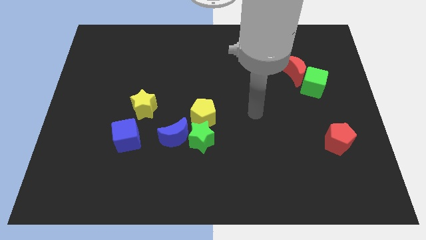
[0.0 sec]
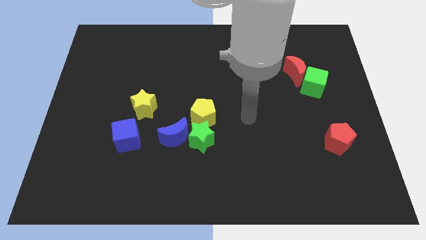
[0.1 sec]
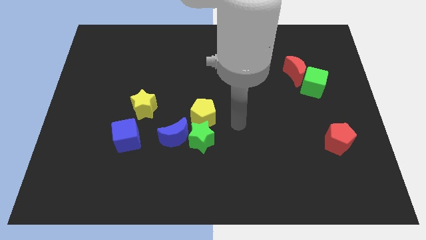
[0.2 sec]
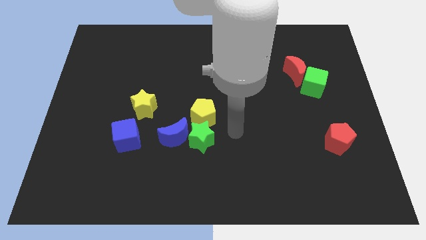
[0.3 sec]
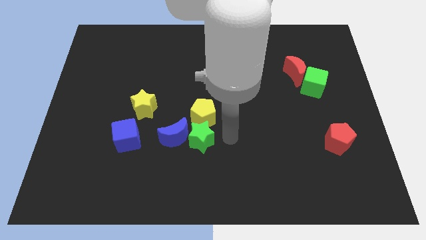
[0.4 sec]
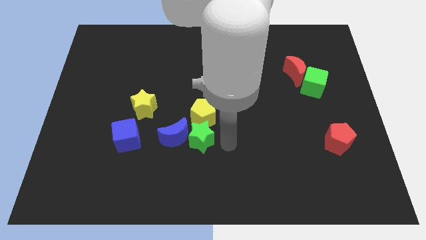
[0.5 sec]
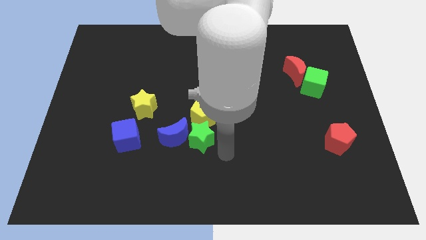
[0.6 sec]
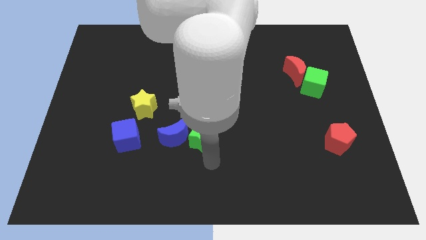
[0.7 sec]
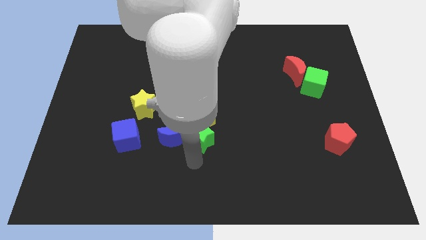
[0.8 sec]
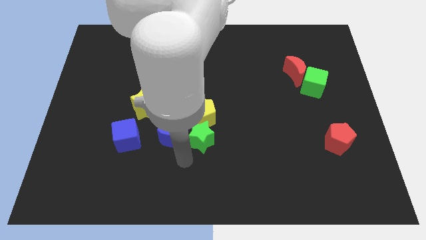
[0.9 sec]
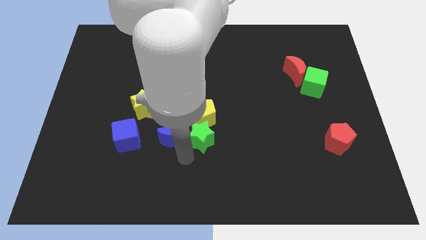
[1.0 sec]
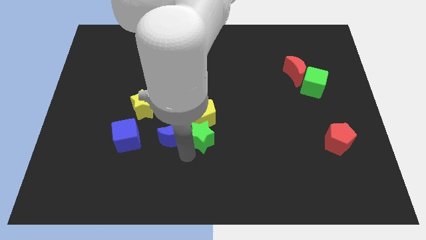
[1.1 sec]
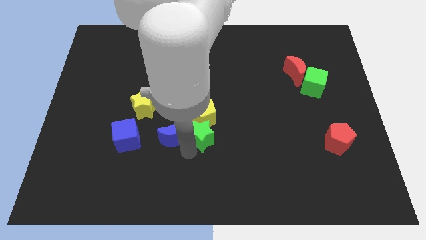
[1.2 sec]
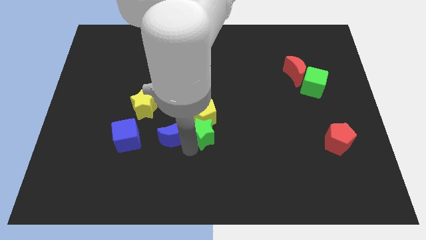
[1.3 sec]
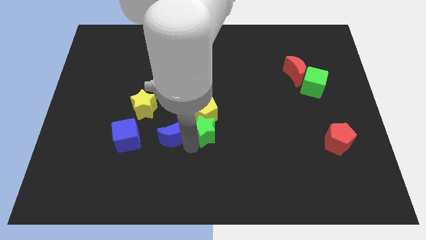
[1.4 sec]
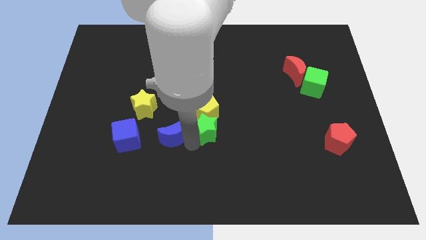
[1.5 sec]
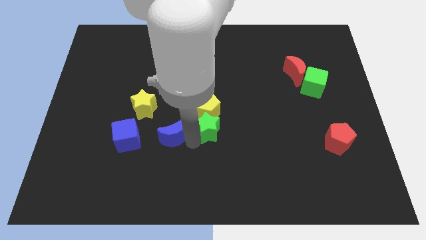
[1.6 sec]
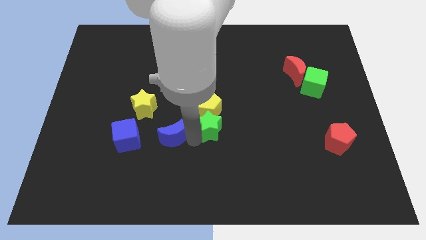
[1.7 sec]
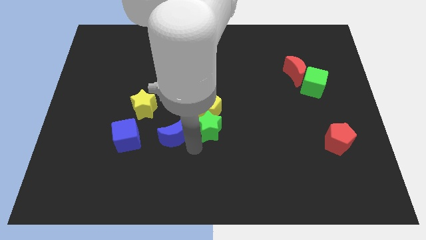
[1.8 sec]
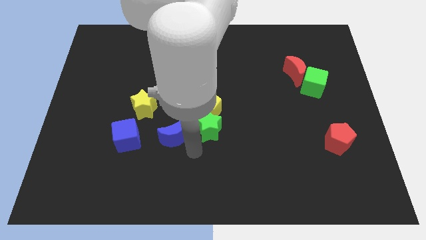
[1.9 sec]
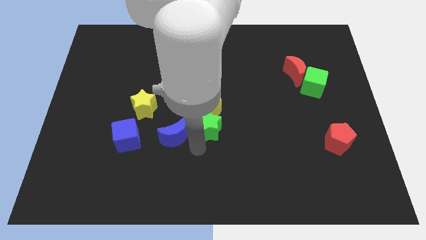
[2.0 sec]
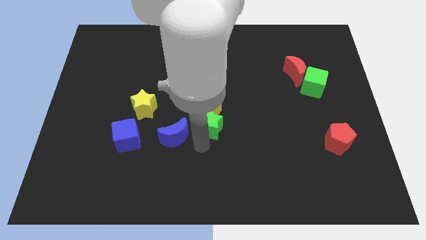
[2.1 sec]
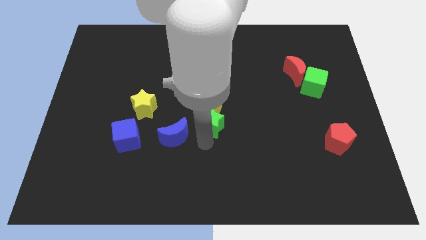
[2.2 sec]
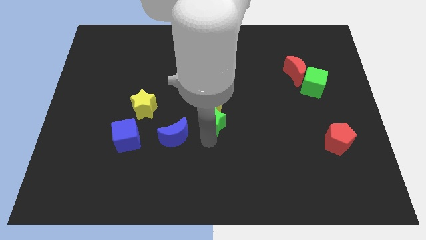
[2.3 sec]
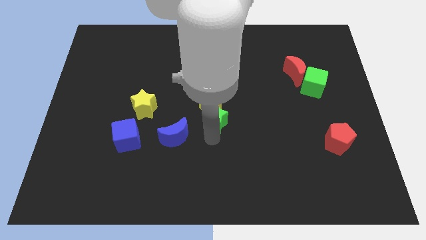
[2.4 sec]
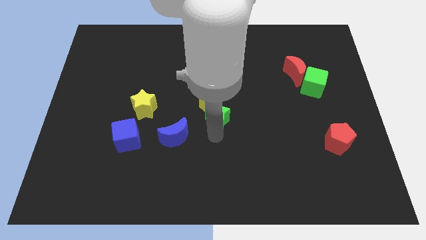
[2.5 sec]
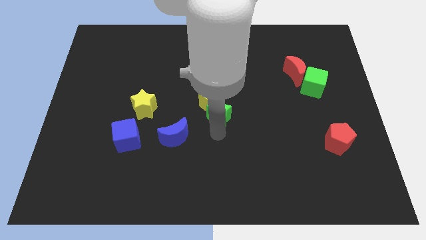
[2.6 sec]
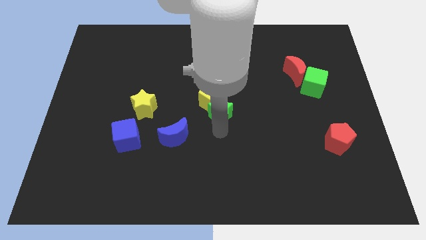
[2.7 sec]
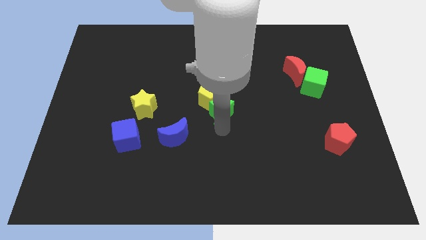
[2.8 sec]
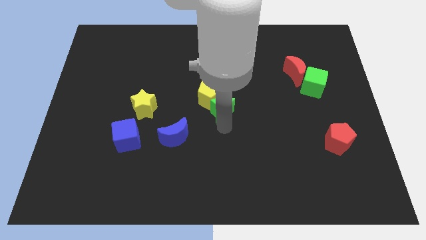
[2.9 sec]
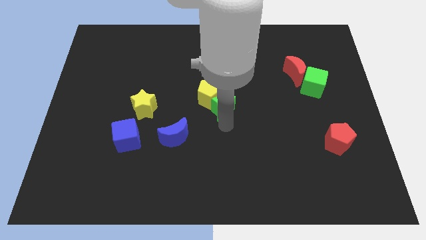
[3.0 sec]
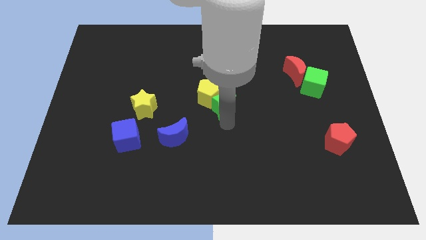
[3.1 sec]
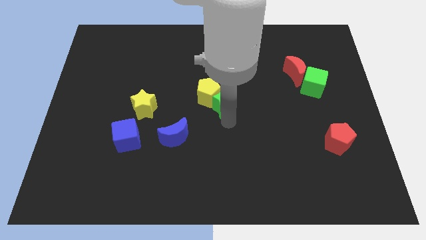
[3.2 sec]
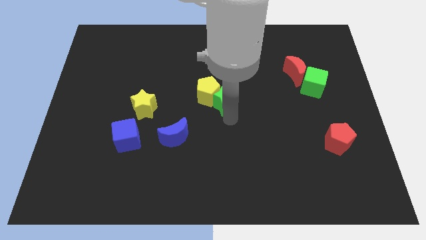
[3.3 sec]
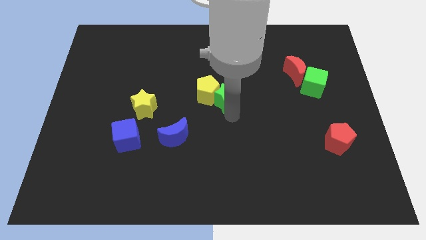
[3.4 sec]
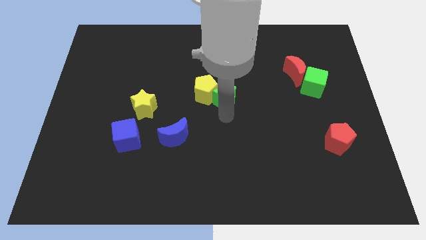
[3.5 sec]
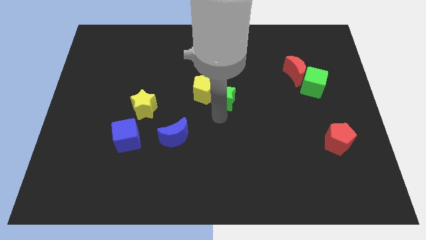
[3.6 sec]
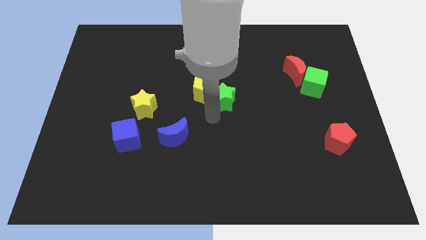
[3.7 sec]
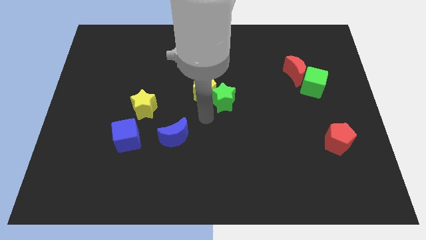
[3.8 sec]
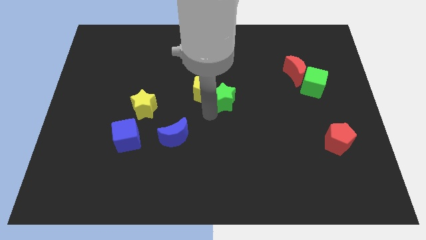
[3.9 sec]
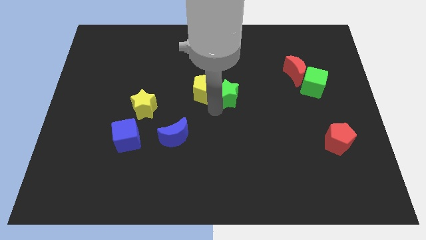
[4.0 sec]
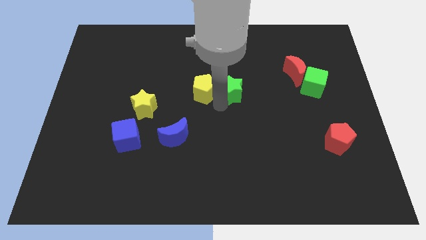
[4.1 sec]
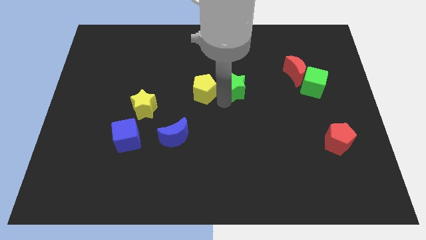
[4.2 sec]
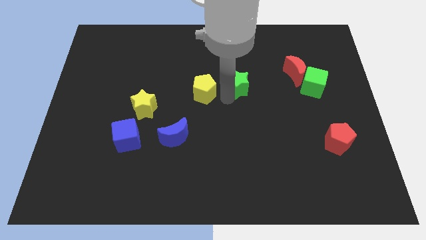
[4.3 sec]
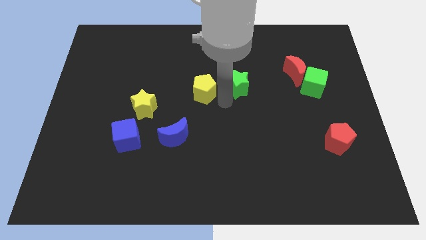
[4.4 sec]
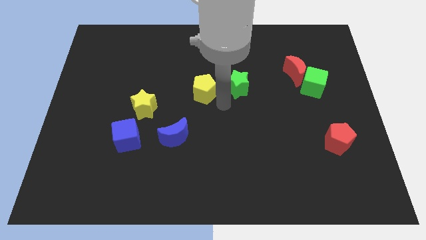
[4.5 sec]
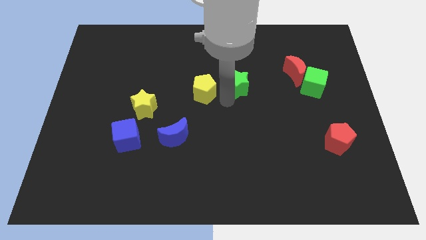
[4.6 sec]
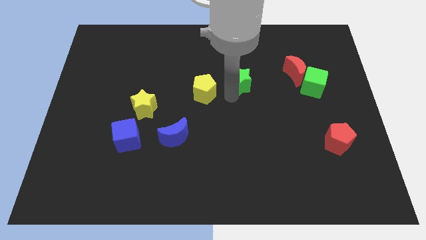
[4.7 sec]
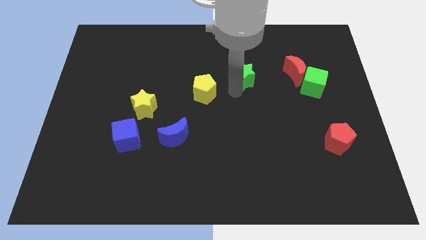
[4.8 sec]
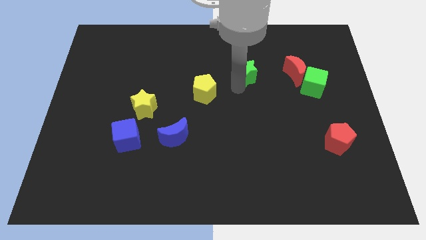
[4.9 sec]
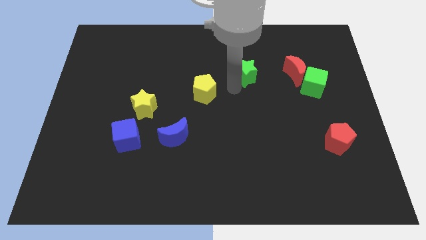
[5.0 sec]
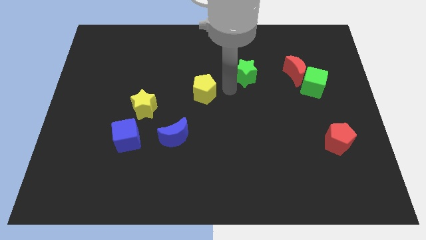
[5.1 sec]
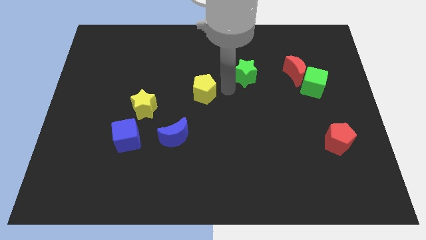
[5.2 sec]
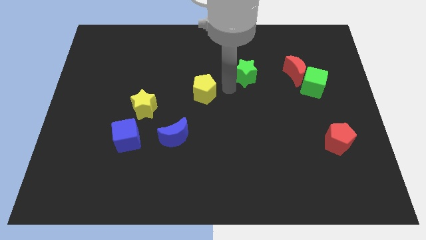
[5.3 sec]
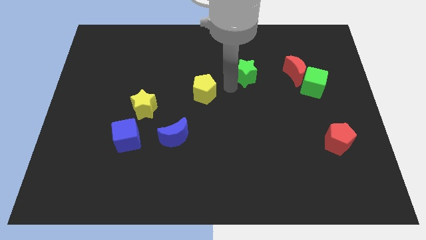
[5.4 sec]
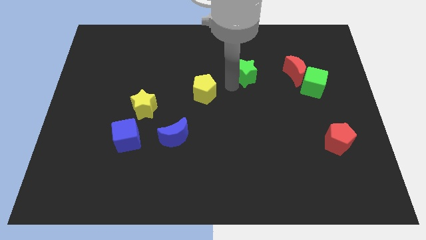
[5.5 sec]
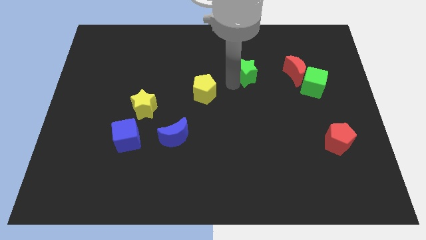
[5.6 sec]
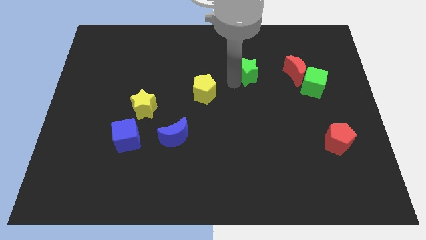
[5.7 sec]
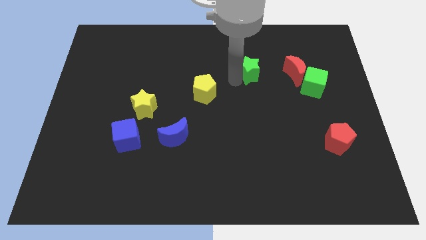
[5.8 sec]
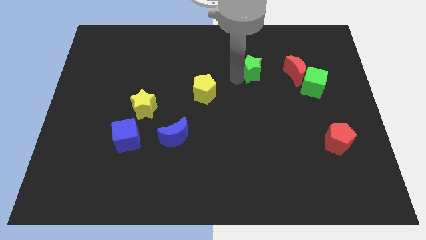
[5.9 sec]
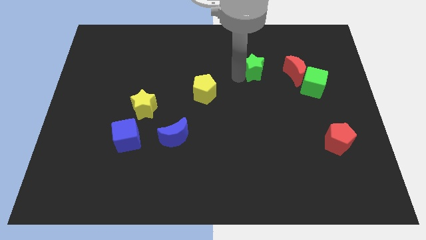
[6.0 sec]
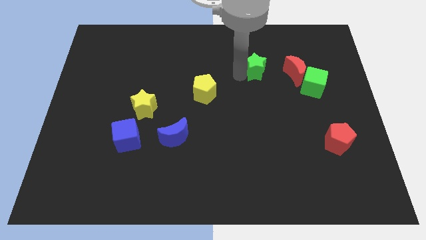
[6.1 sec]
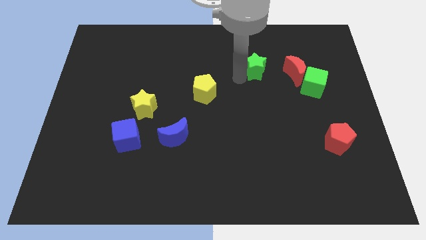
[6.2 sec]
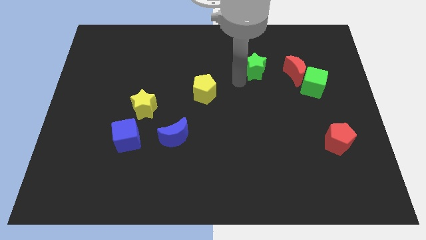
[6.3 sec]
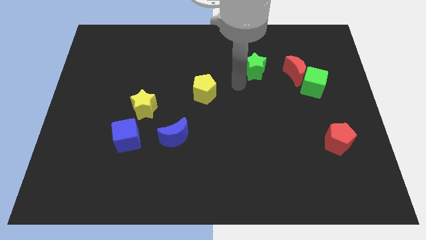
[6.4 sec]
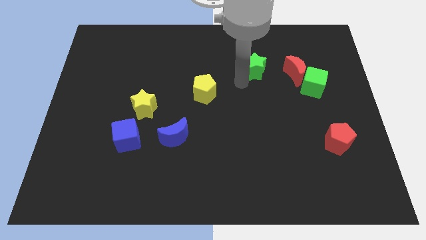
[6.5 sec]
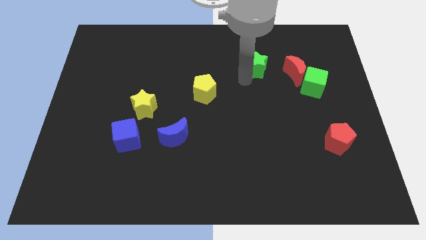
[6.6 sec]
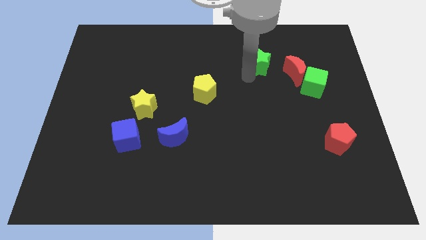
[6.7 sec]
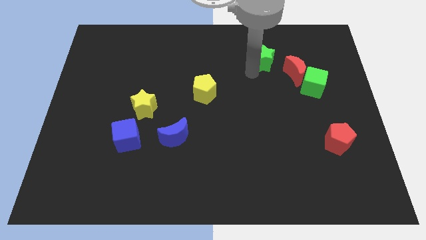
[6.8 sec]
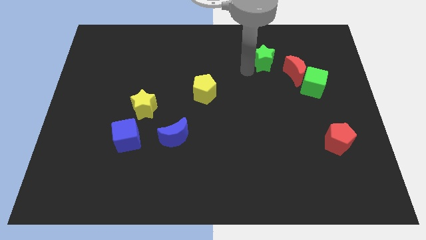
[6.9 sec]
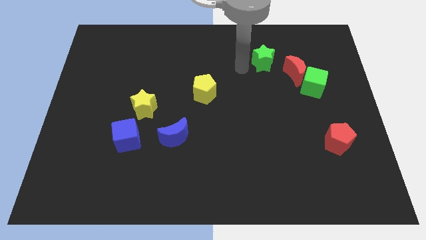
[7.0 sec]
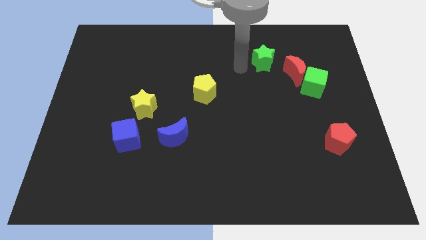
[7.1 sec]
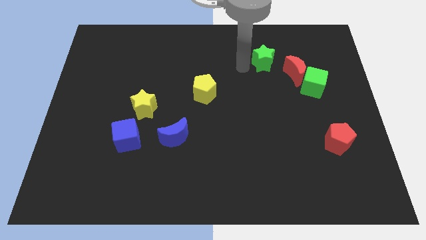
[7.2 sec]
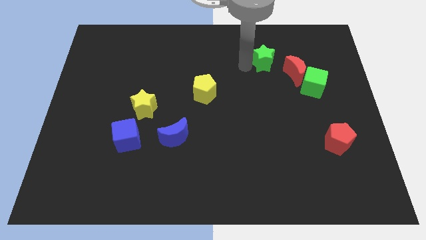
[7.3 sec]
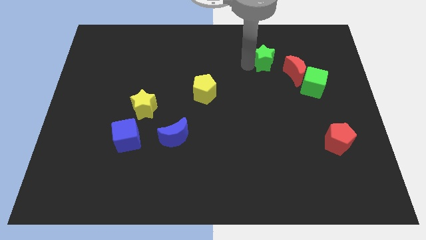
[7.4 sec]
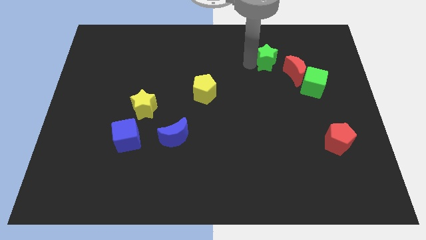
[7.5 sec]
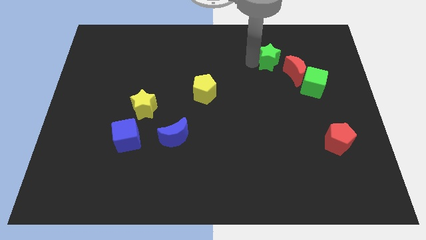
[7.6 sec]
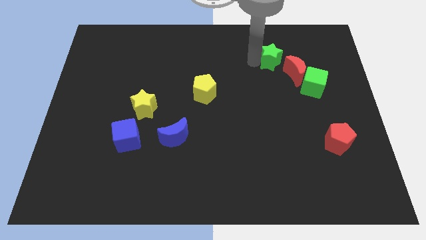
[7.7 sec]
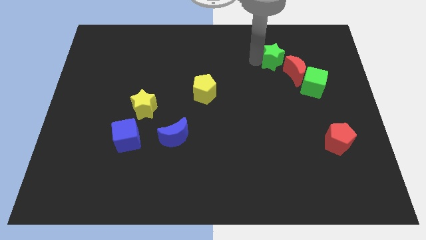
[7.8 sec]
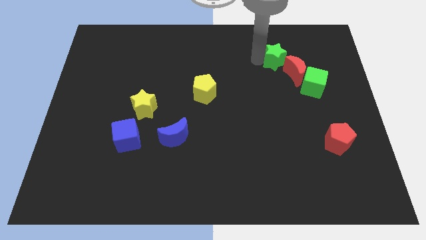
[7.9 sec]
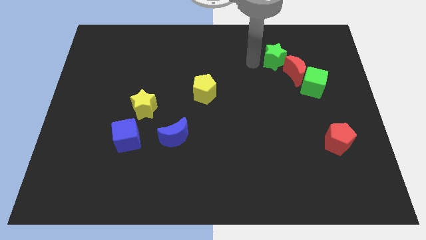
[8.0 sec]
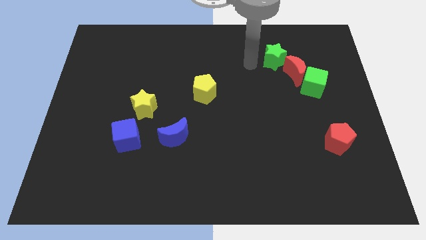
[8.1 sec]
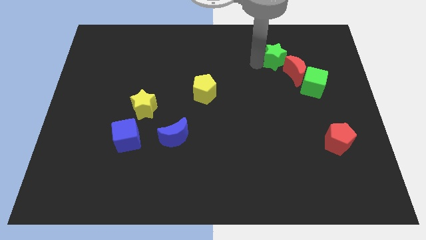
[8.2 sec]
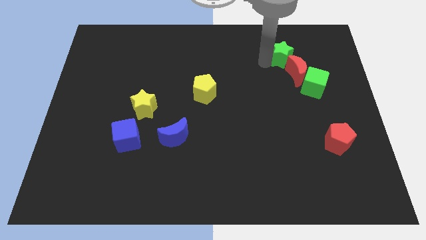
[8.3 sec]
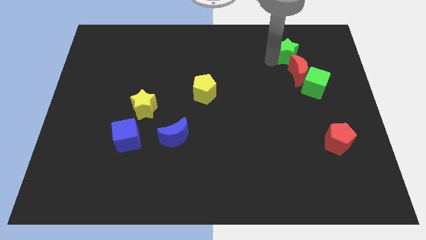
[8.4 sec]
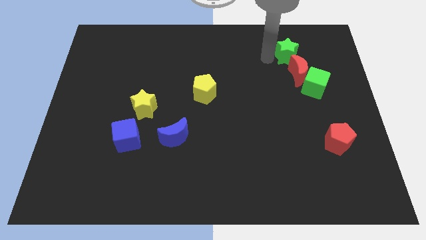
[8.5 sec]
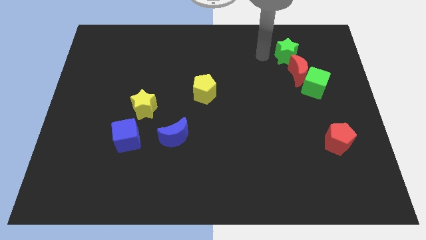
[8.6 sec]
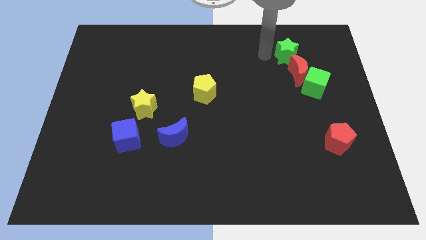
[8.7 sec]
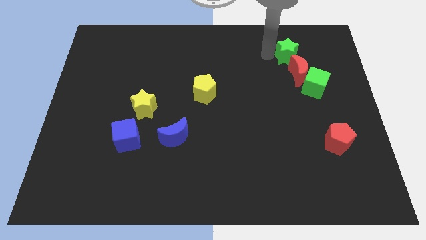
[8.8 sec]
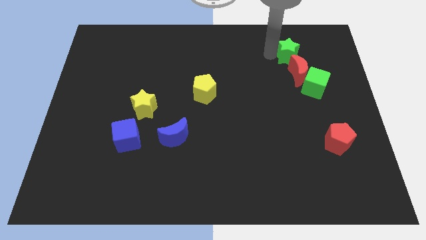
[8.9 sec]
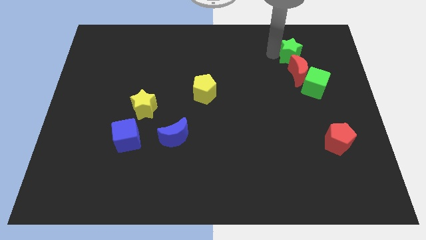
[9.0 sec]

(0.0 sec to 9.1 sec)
move the green star to the top of the green cube
